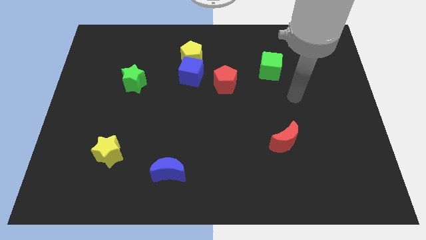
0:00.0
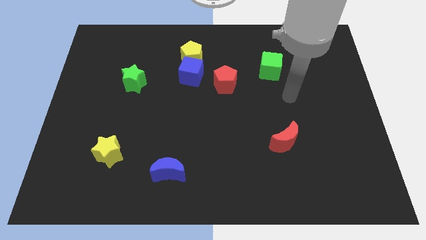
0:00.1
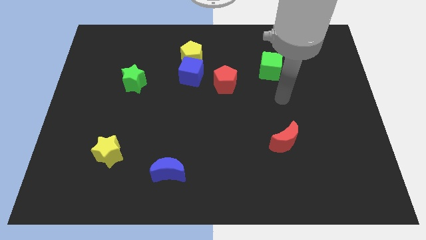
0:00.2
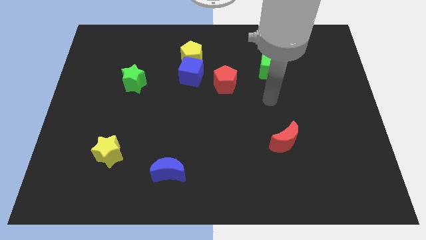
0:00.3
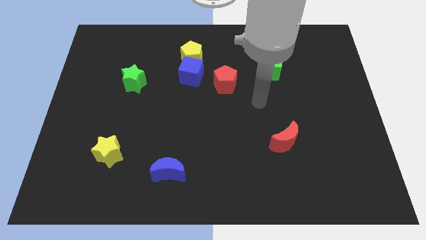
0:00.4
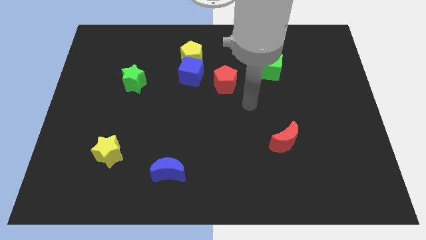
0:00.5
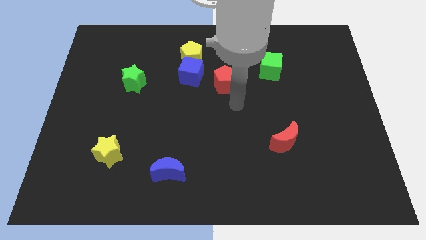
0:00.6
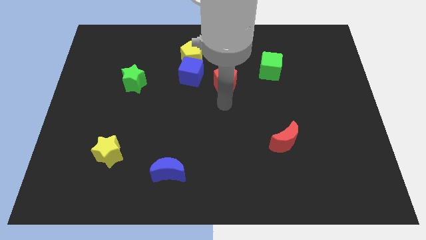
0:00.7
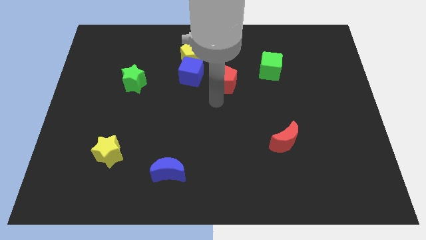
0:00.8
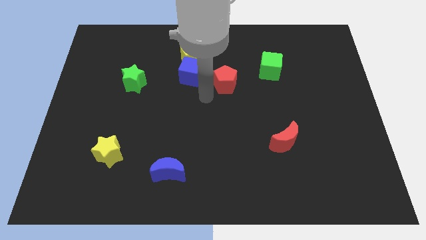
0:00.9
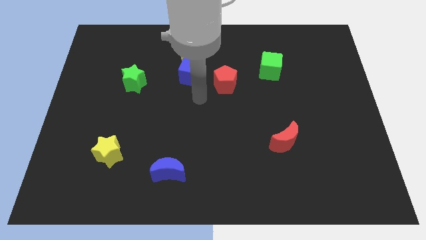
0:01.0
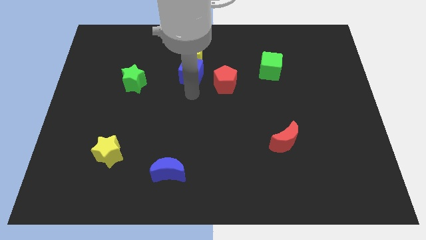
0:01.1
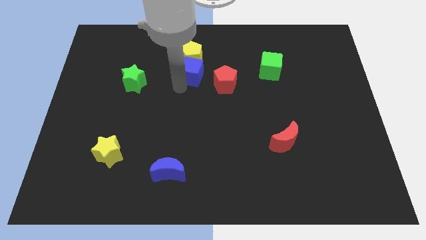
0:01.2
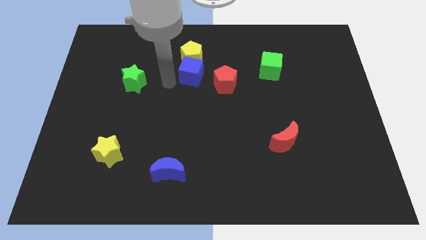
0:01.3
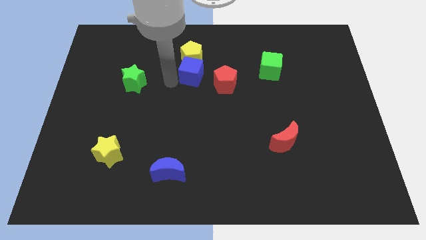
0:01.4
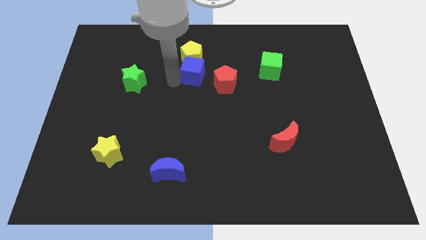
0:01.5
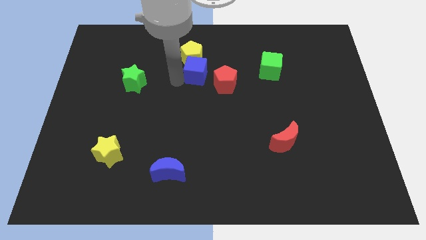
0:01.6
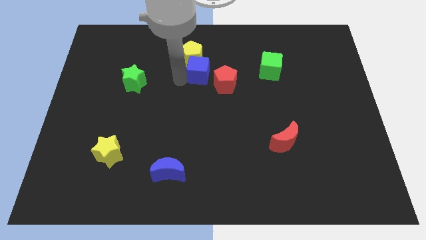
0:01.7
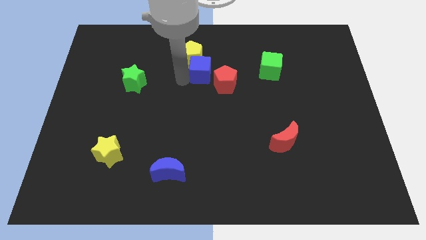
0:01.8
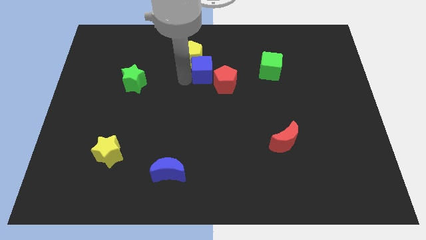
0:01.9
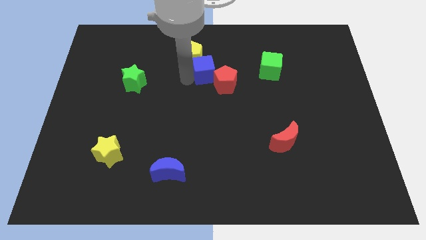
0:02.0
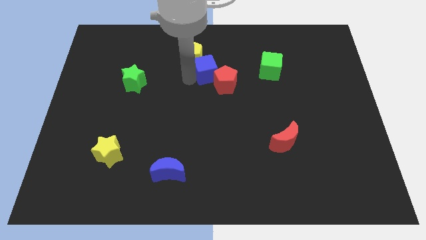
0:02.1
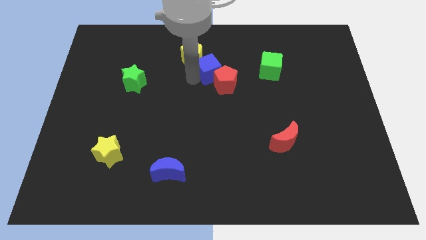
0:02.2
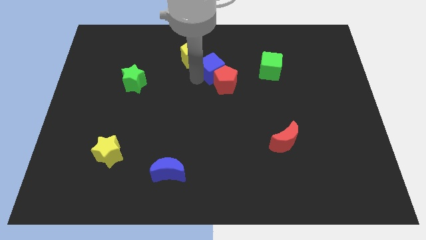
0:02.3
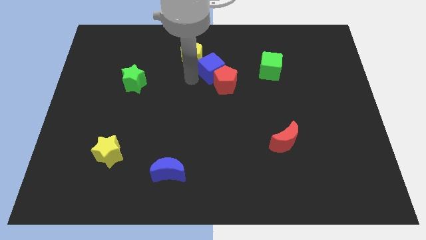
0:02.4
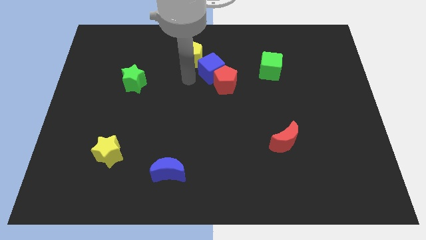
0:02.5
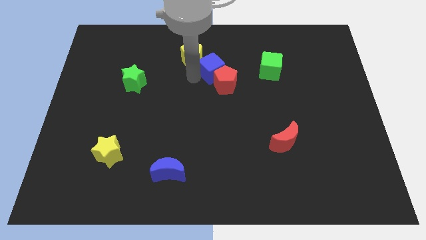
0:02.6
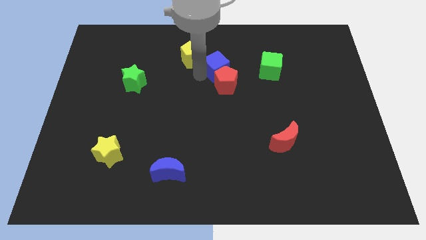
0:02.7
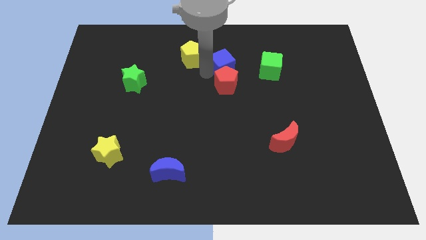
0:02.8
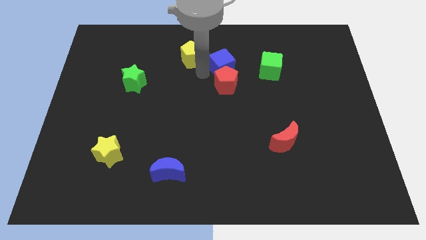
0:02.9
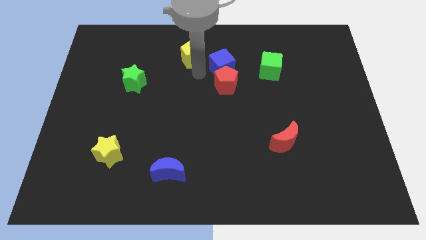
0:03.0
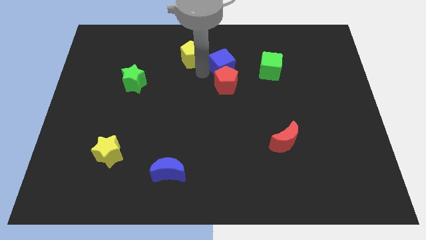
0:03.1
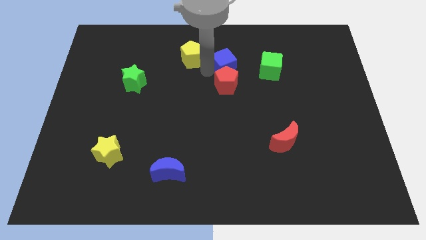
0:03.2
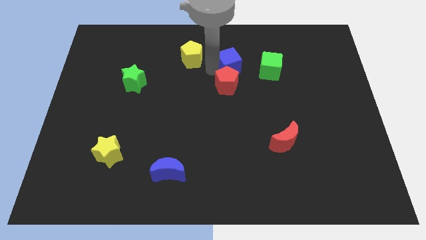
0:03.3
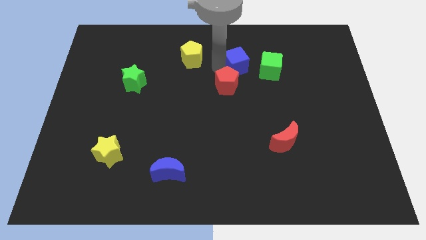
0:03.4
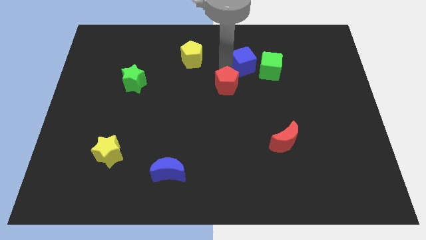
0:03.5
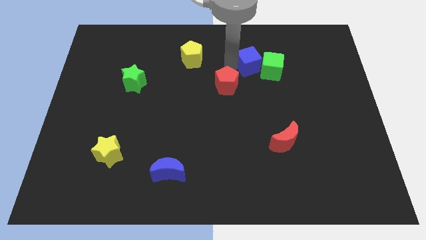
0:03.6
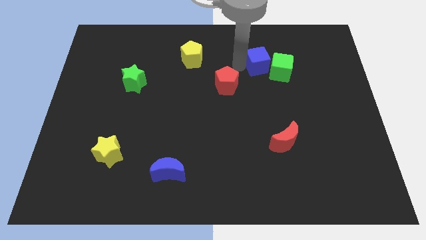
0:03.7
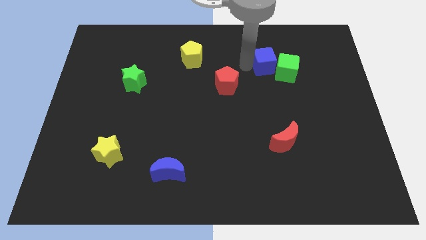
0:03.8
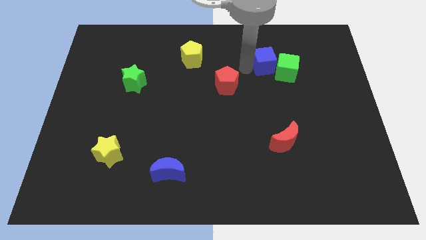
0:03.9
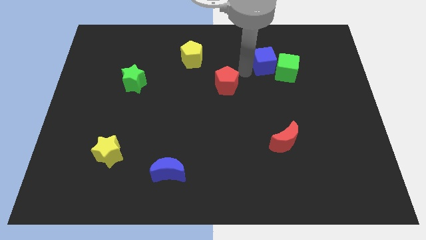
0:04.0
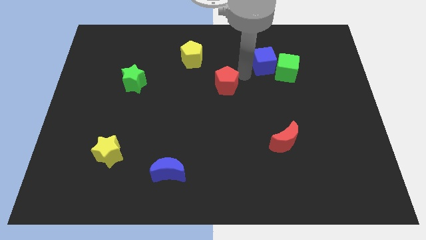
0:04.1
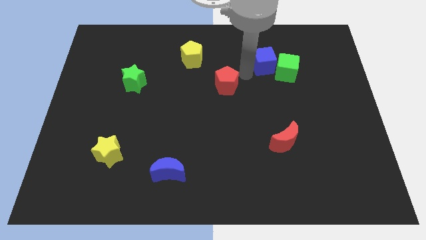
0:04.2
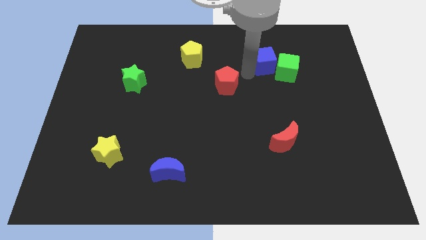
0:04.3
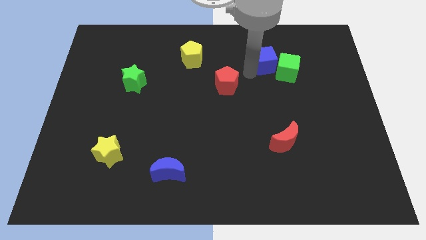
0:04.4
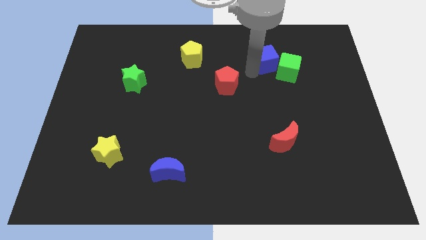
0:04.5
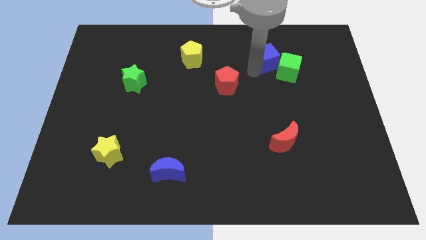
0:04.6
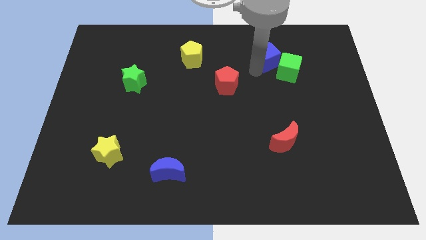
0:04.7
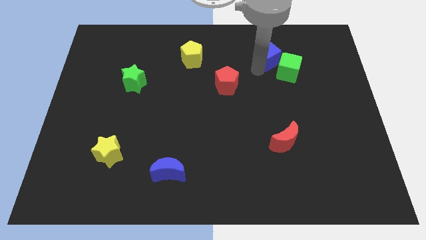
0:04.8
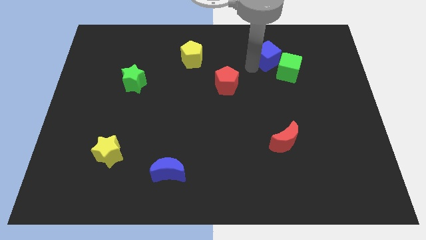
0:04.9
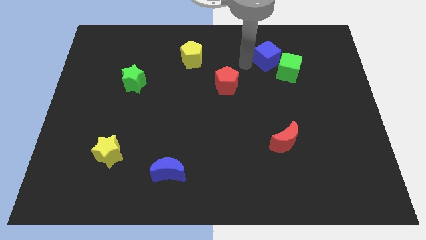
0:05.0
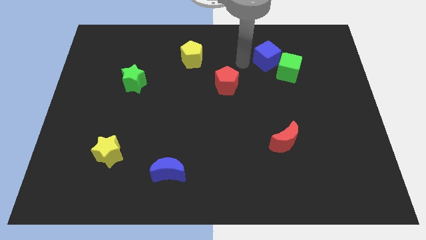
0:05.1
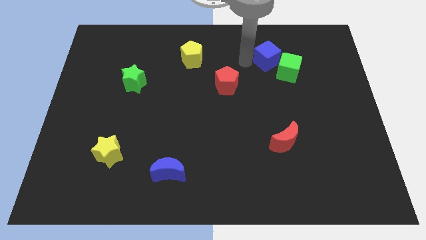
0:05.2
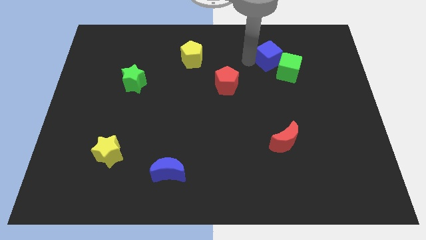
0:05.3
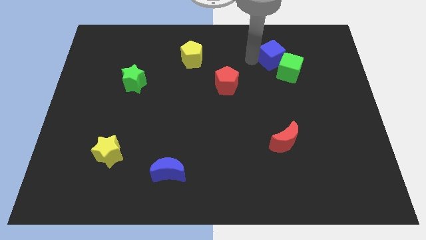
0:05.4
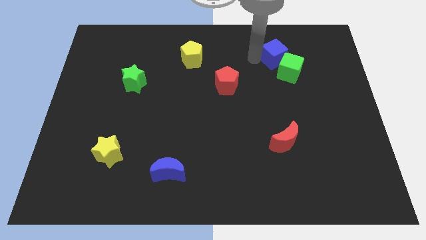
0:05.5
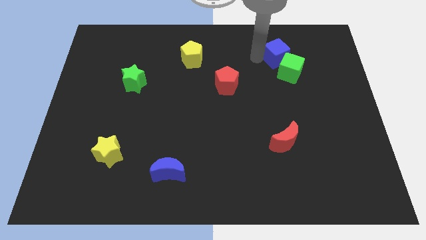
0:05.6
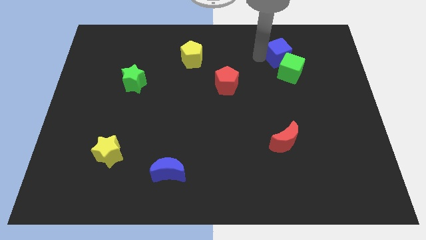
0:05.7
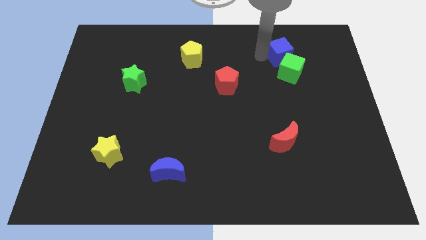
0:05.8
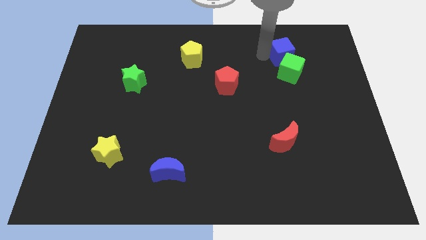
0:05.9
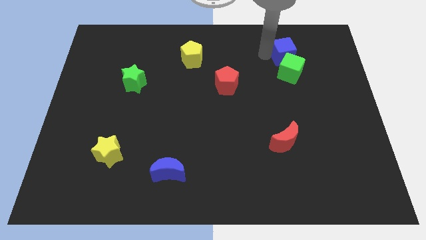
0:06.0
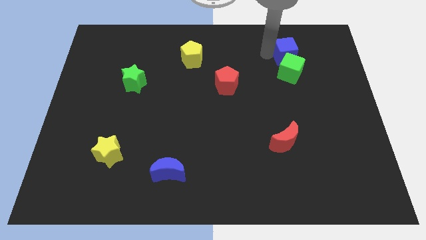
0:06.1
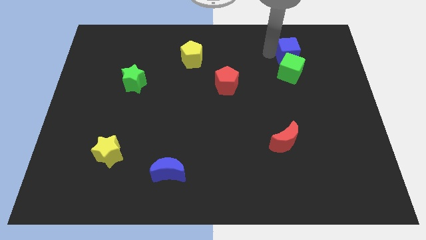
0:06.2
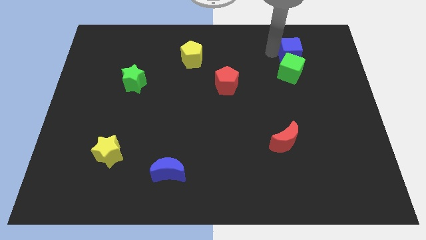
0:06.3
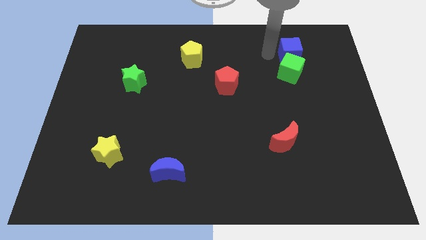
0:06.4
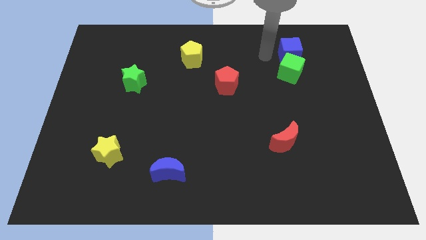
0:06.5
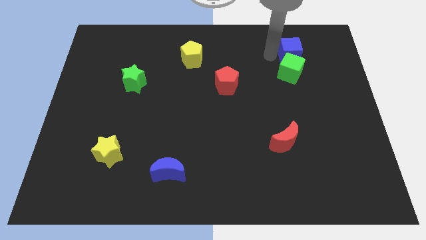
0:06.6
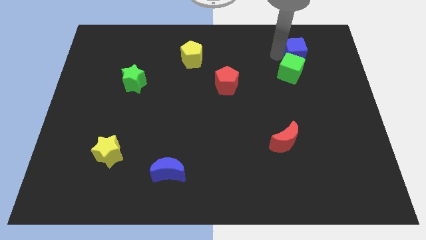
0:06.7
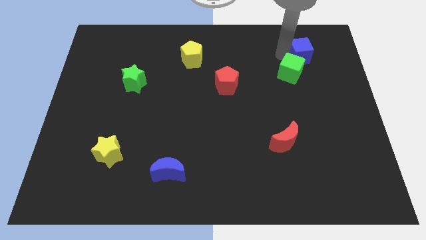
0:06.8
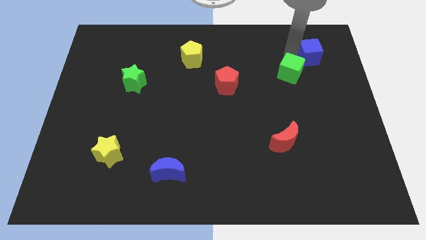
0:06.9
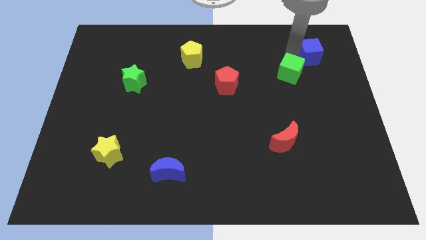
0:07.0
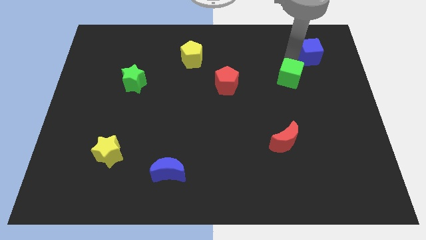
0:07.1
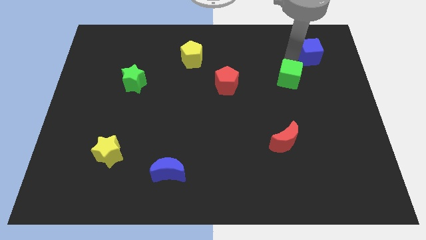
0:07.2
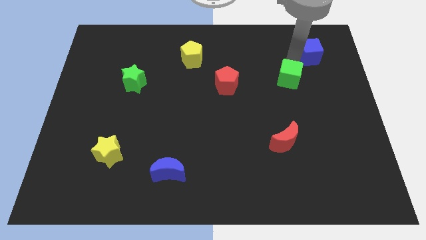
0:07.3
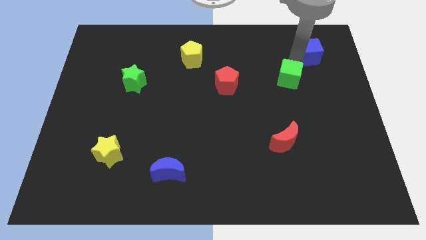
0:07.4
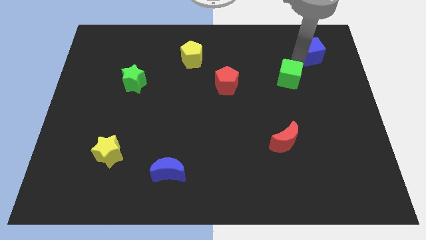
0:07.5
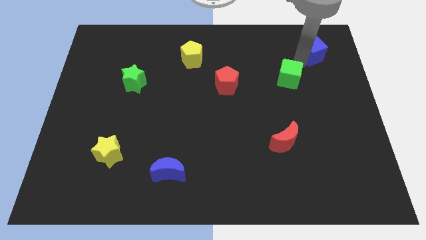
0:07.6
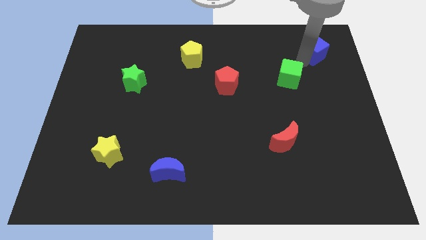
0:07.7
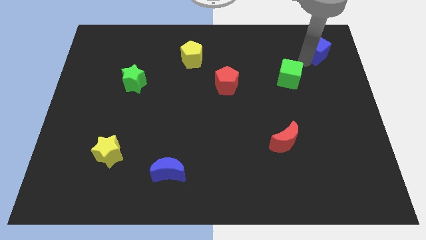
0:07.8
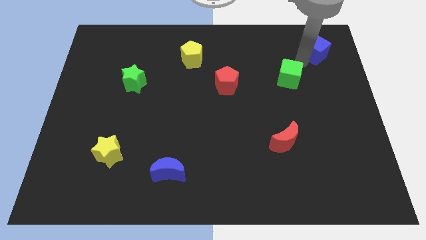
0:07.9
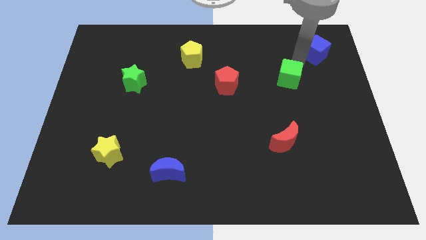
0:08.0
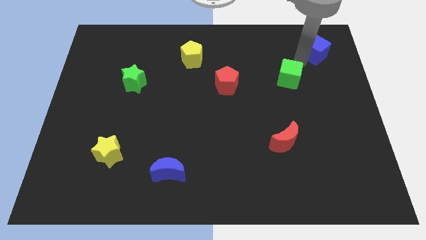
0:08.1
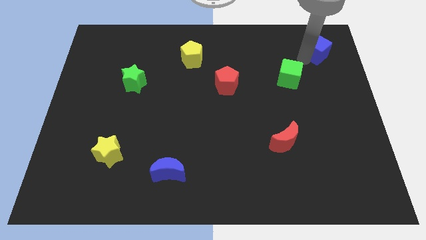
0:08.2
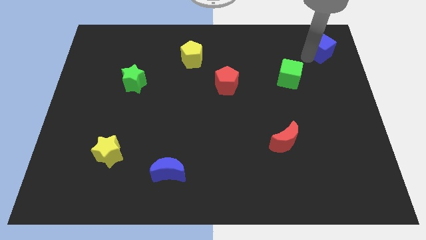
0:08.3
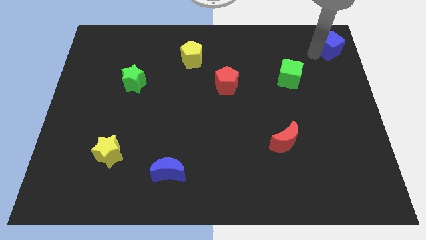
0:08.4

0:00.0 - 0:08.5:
move the blue cube to the top right corner
